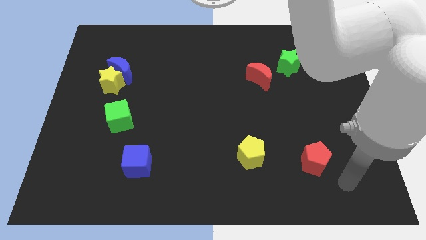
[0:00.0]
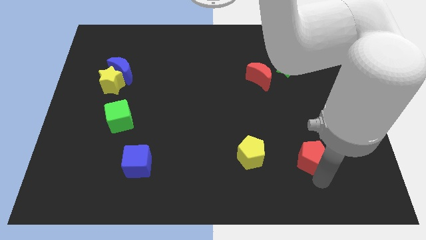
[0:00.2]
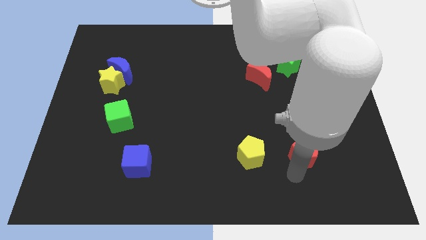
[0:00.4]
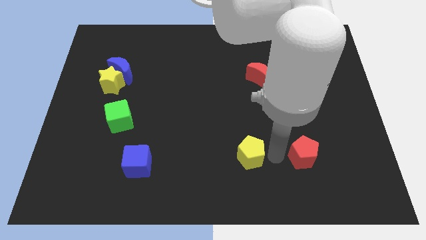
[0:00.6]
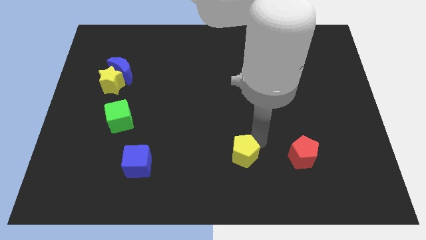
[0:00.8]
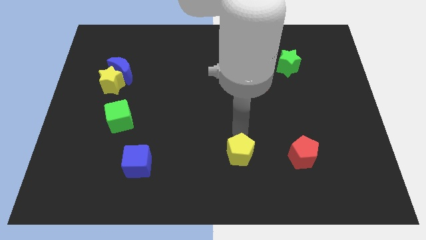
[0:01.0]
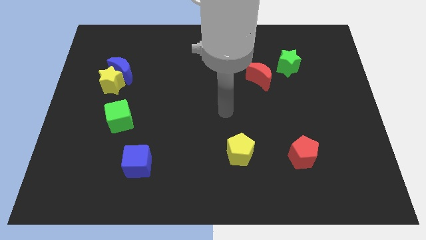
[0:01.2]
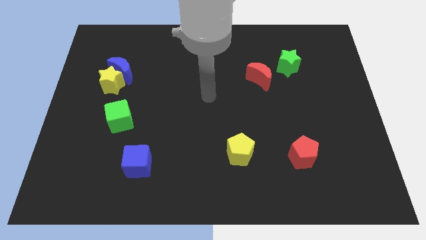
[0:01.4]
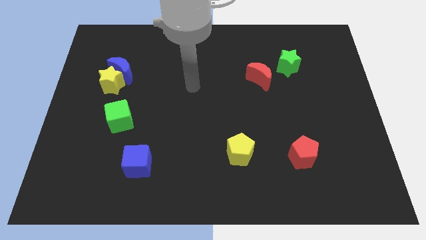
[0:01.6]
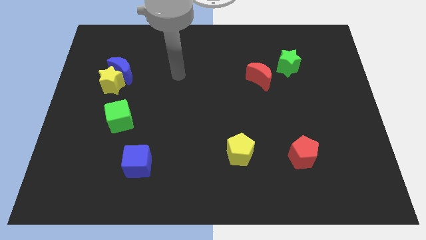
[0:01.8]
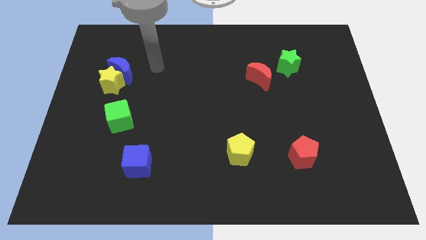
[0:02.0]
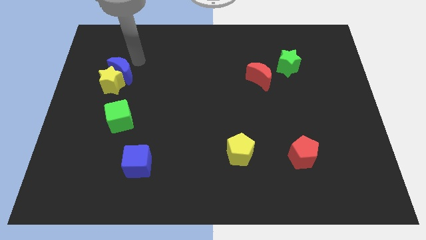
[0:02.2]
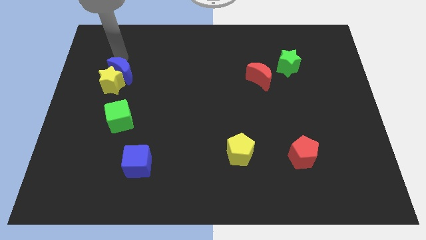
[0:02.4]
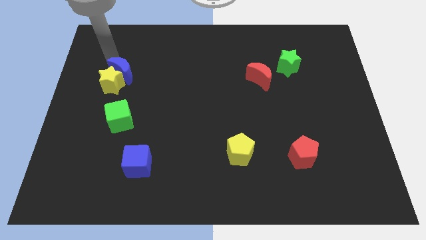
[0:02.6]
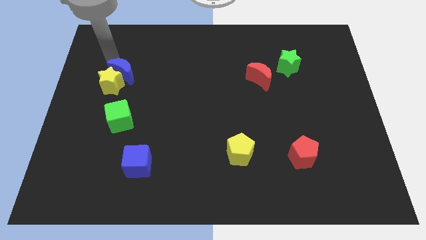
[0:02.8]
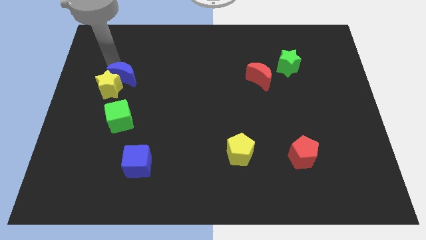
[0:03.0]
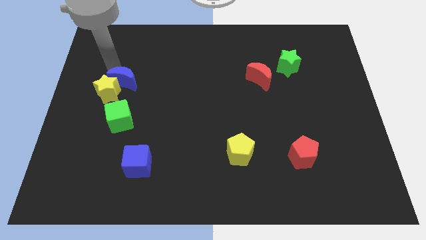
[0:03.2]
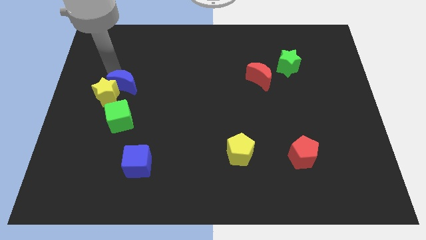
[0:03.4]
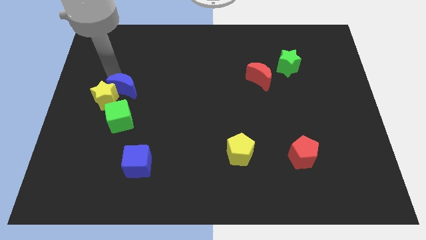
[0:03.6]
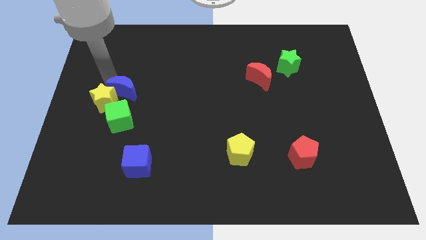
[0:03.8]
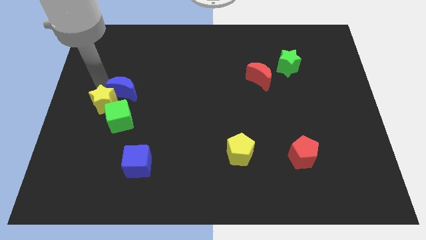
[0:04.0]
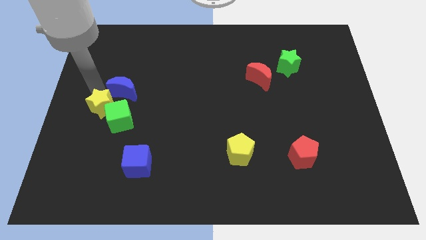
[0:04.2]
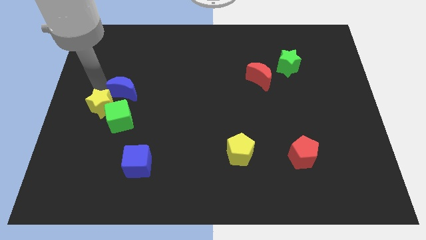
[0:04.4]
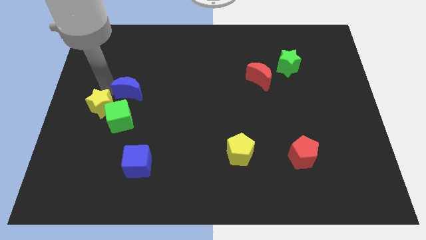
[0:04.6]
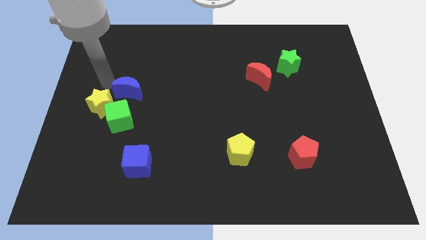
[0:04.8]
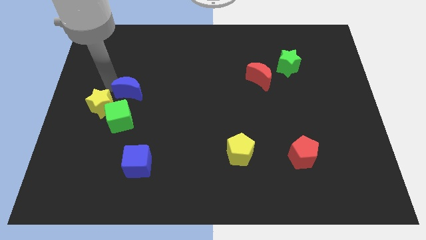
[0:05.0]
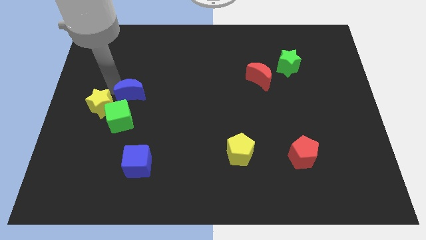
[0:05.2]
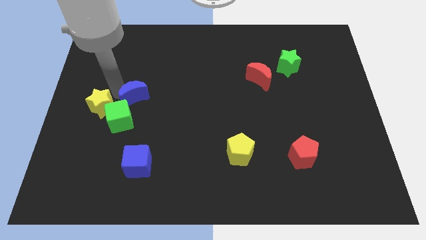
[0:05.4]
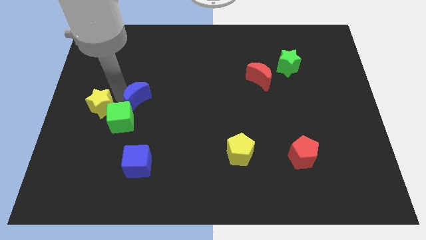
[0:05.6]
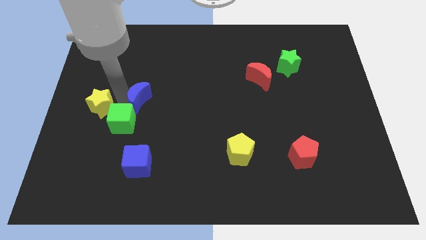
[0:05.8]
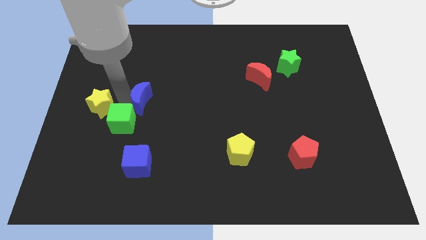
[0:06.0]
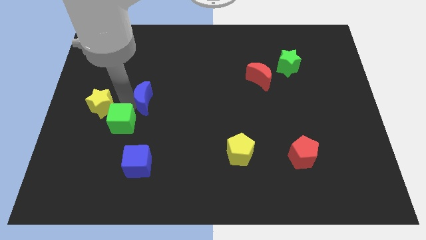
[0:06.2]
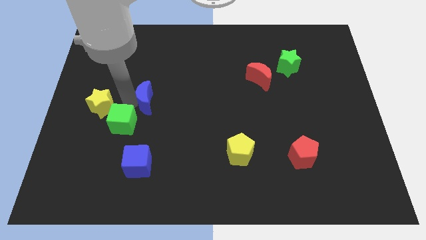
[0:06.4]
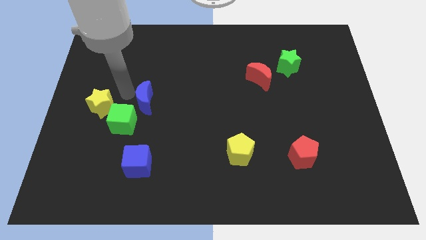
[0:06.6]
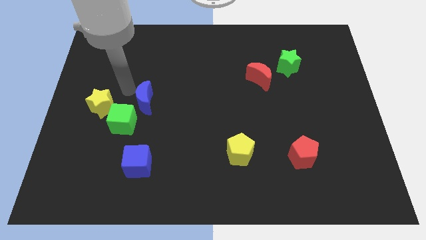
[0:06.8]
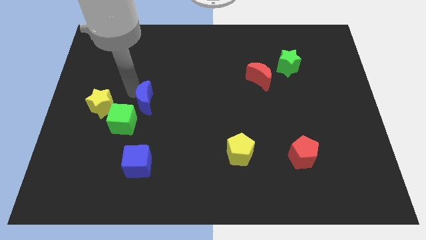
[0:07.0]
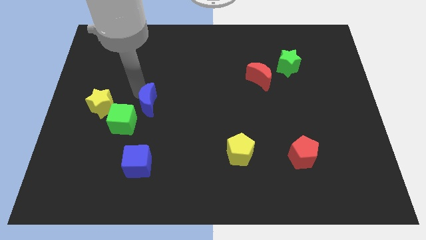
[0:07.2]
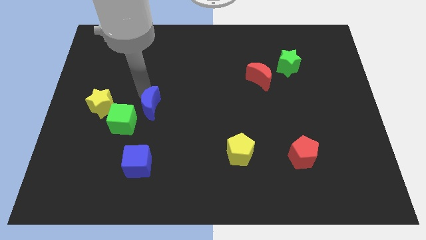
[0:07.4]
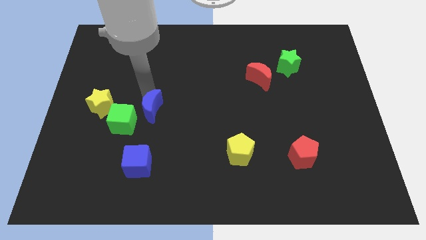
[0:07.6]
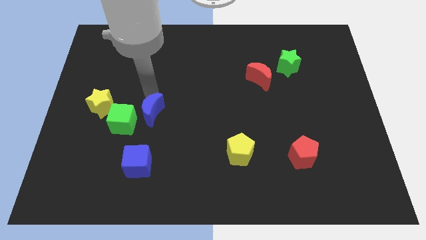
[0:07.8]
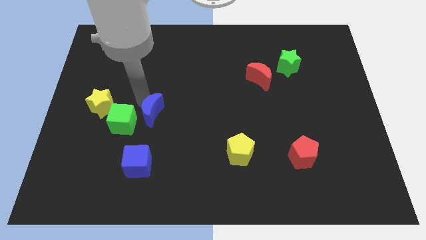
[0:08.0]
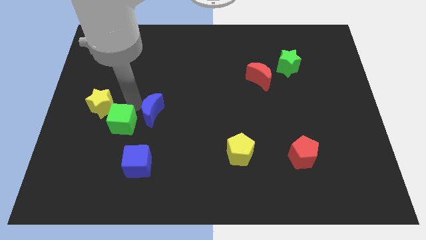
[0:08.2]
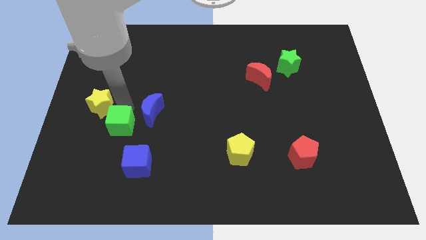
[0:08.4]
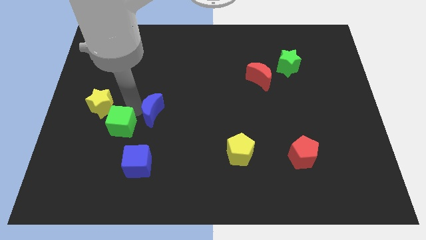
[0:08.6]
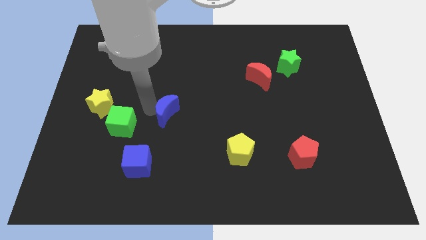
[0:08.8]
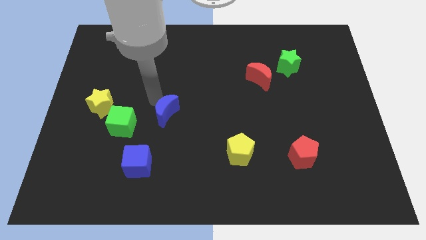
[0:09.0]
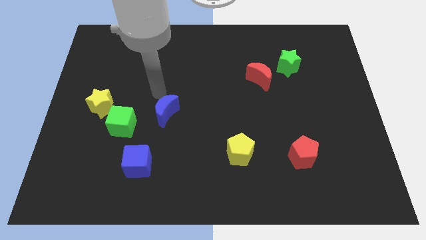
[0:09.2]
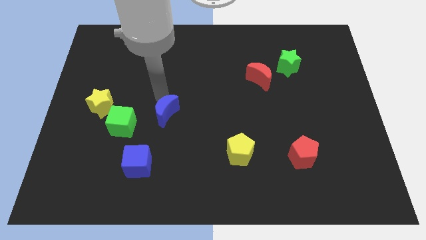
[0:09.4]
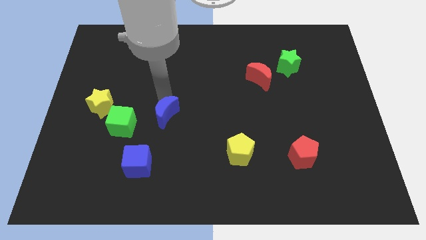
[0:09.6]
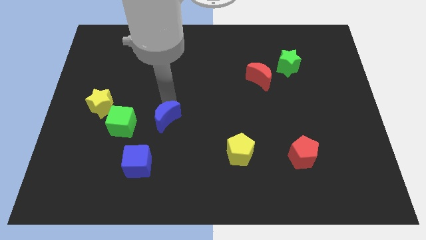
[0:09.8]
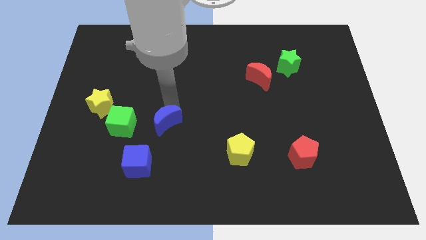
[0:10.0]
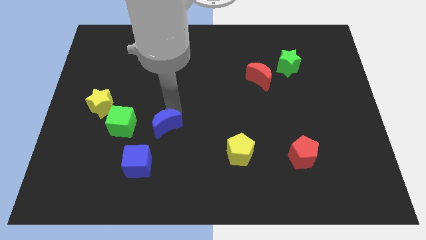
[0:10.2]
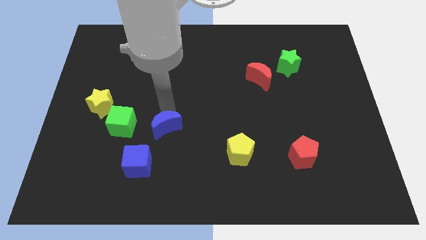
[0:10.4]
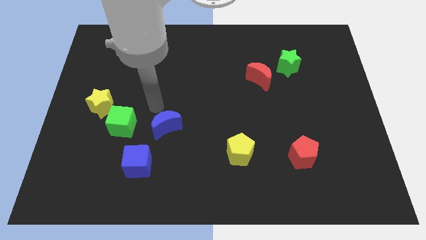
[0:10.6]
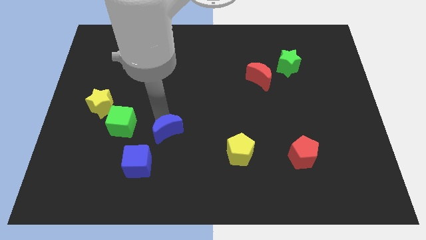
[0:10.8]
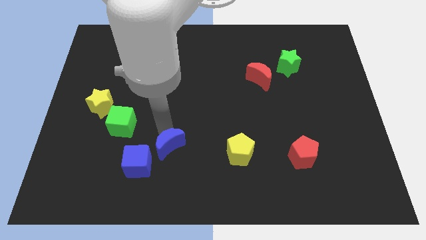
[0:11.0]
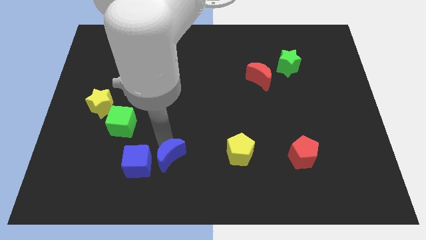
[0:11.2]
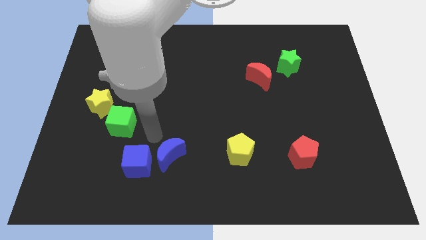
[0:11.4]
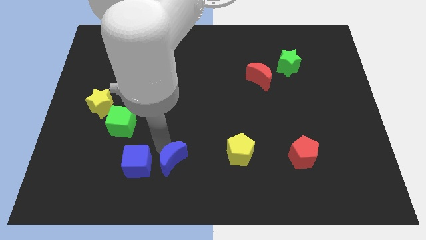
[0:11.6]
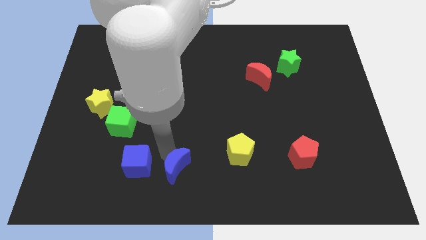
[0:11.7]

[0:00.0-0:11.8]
move the blue moon to the bottom side
